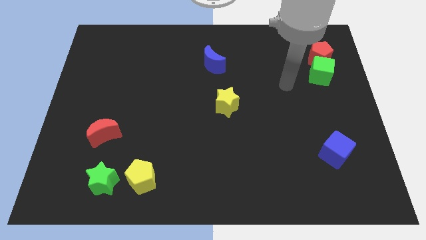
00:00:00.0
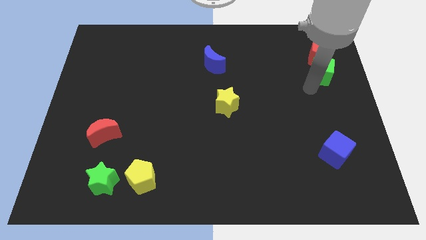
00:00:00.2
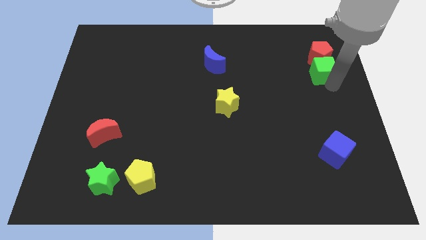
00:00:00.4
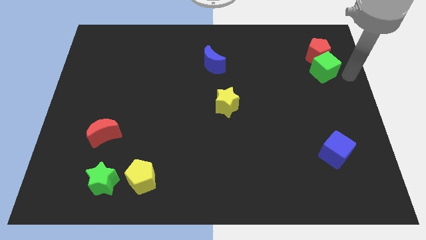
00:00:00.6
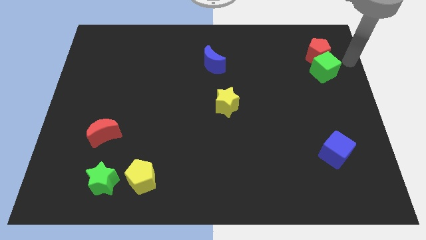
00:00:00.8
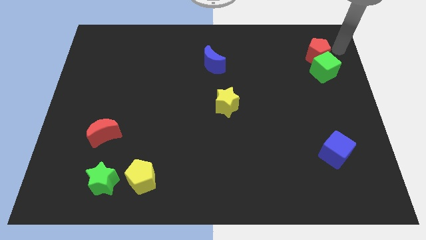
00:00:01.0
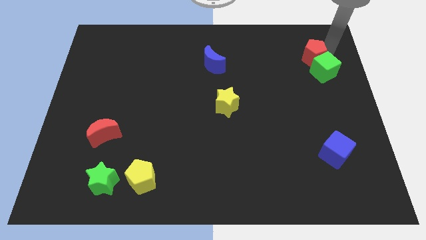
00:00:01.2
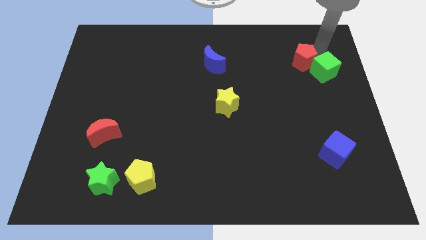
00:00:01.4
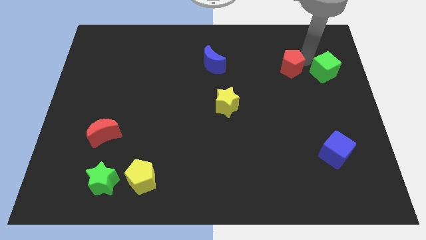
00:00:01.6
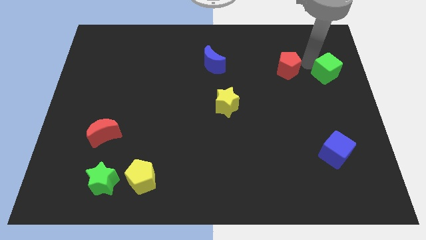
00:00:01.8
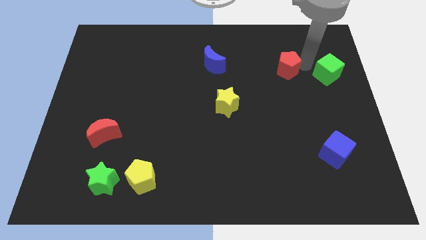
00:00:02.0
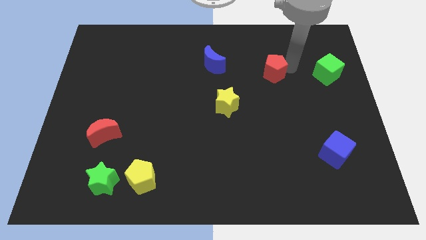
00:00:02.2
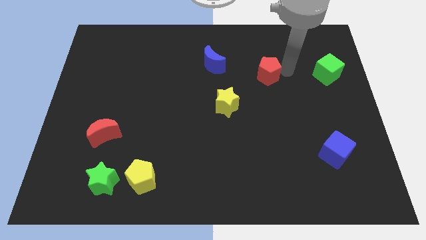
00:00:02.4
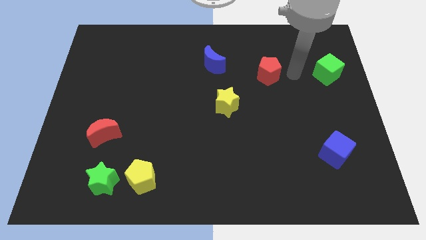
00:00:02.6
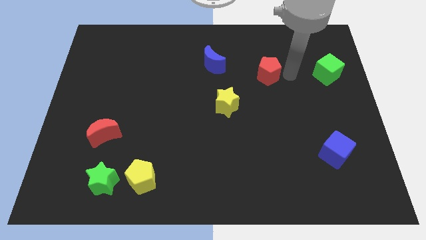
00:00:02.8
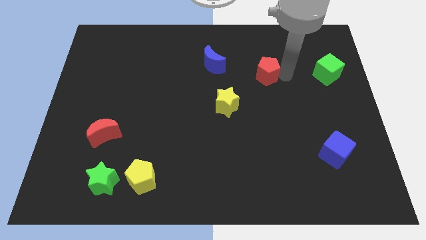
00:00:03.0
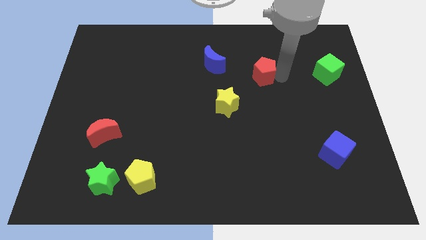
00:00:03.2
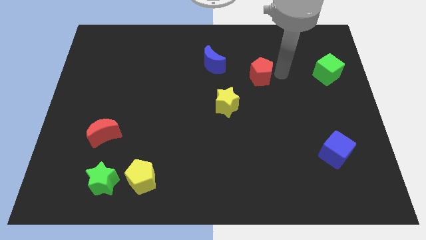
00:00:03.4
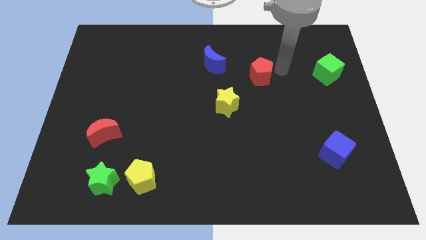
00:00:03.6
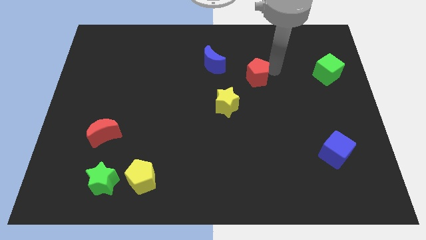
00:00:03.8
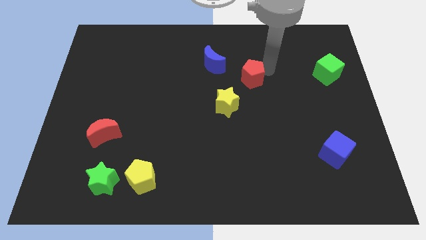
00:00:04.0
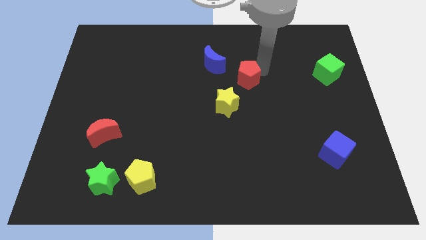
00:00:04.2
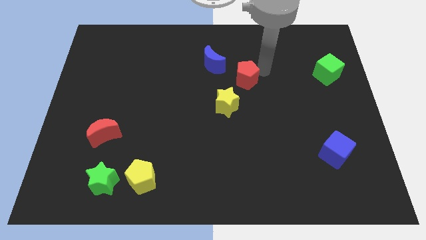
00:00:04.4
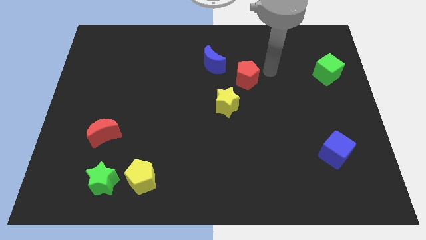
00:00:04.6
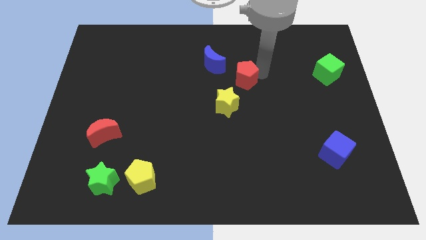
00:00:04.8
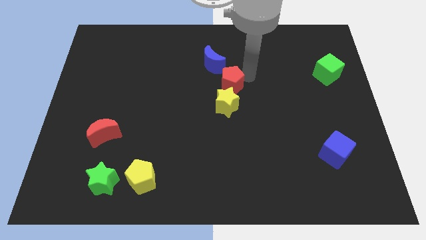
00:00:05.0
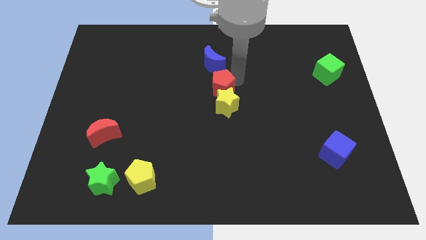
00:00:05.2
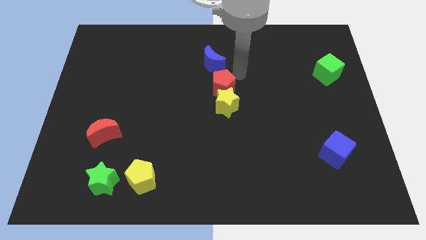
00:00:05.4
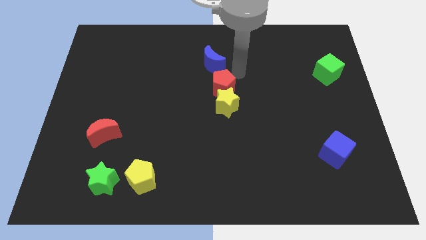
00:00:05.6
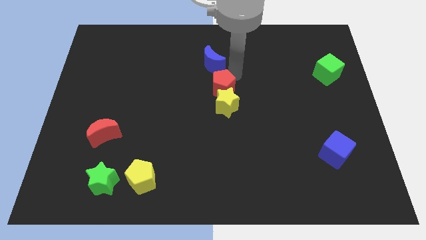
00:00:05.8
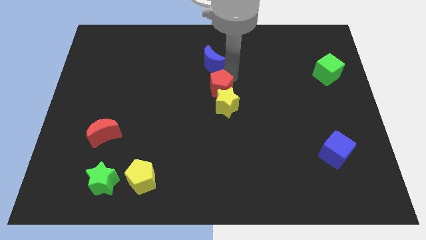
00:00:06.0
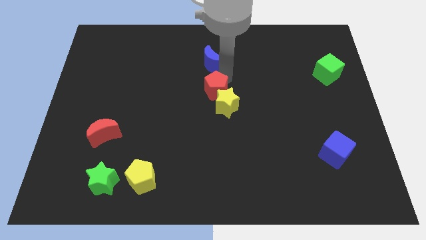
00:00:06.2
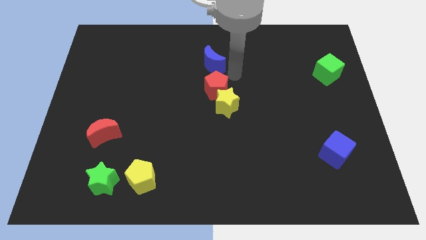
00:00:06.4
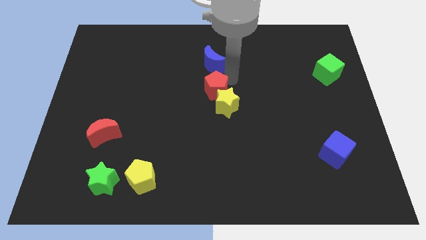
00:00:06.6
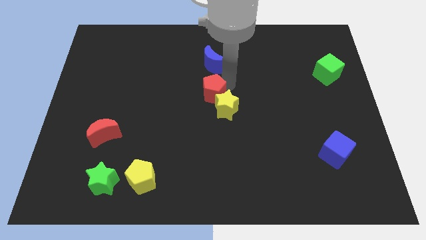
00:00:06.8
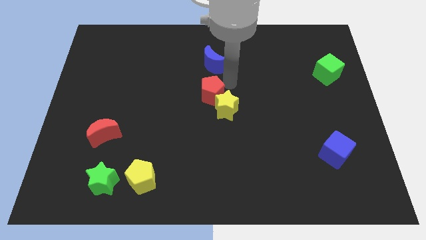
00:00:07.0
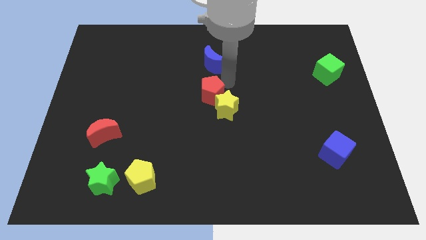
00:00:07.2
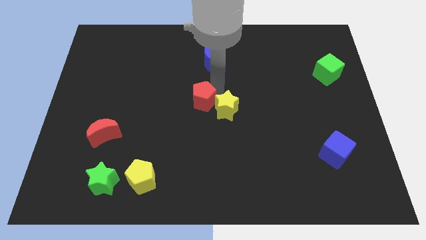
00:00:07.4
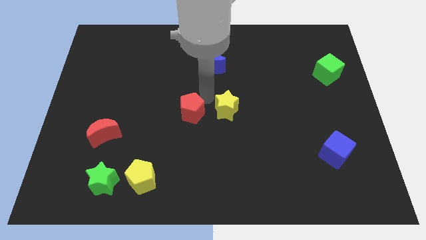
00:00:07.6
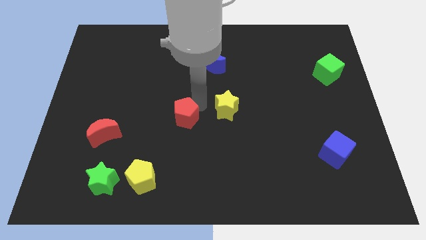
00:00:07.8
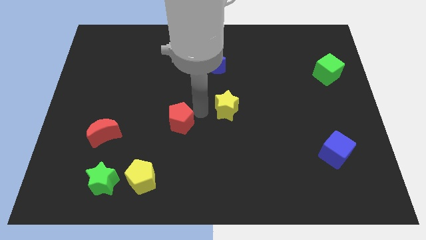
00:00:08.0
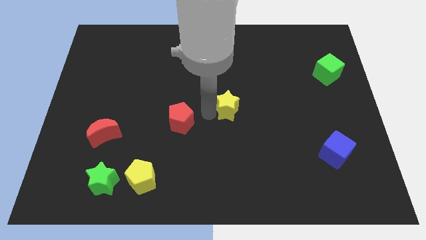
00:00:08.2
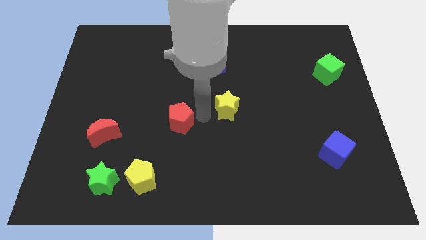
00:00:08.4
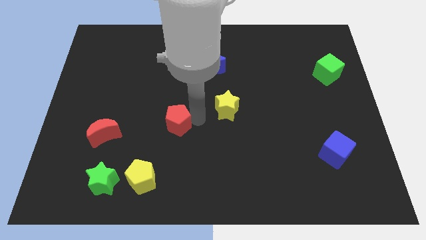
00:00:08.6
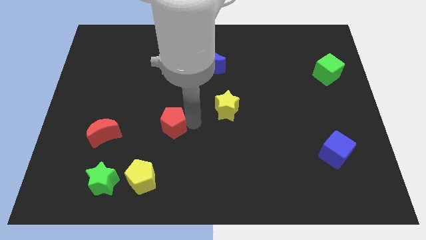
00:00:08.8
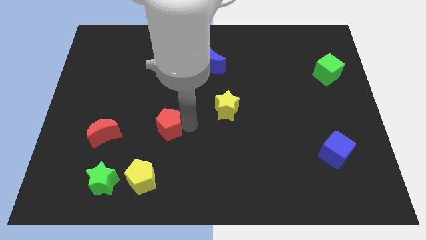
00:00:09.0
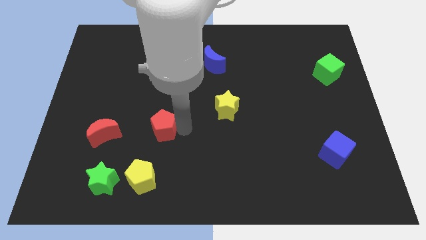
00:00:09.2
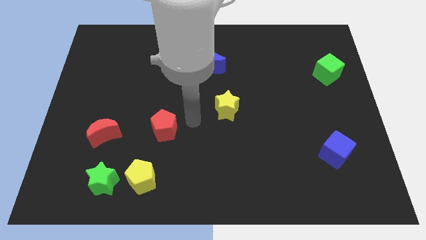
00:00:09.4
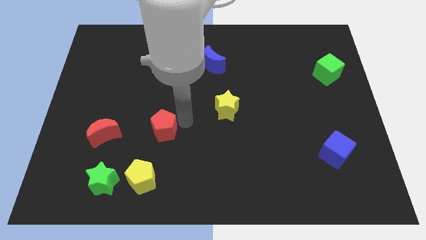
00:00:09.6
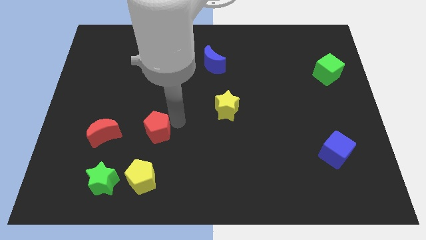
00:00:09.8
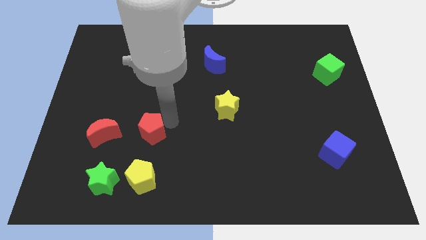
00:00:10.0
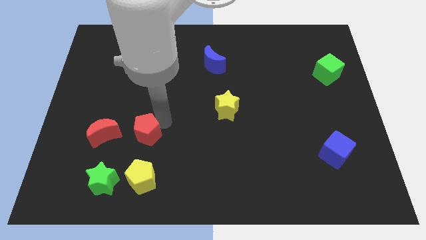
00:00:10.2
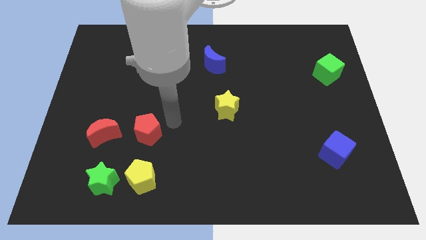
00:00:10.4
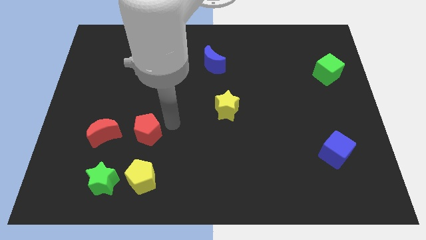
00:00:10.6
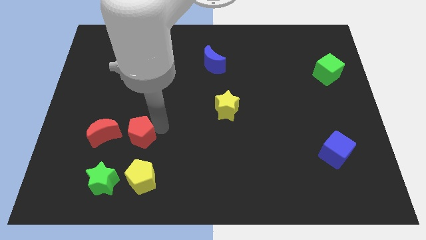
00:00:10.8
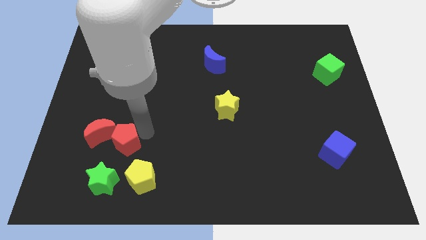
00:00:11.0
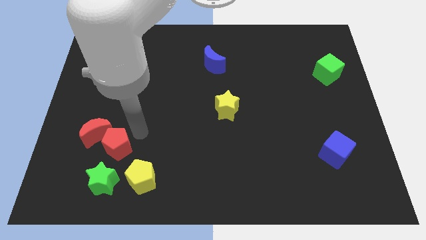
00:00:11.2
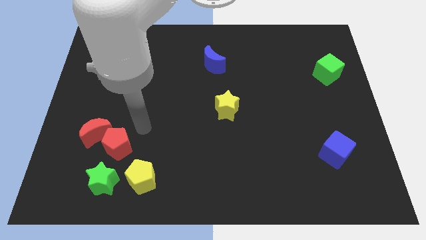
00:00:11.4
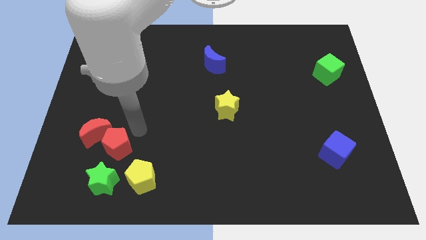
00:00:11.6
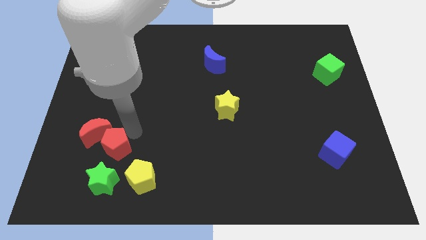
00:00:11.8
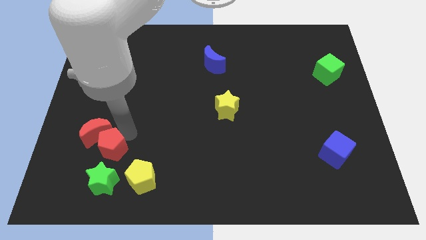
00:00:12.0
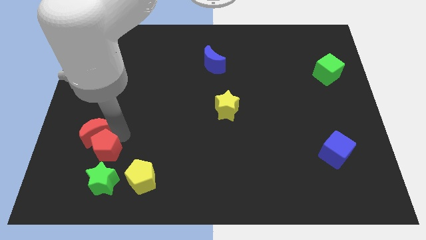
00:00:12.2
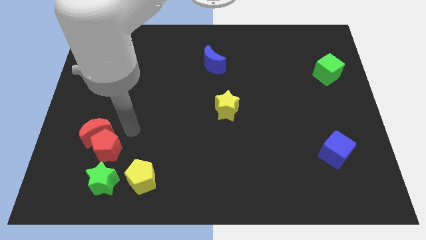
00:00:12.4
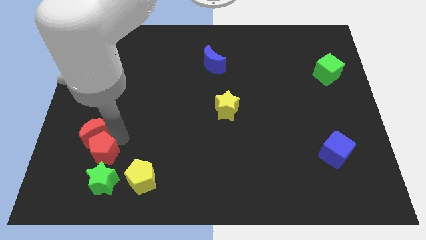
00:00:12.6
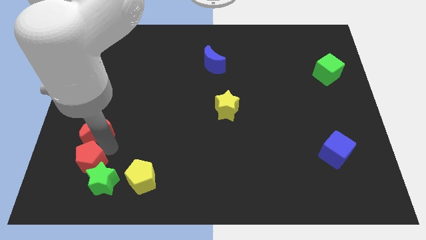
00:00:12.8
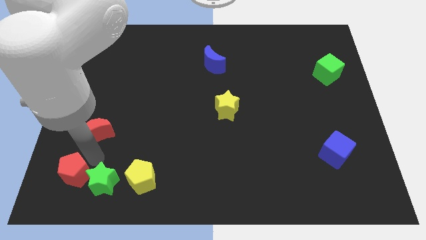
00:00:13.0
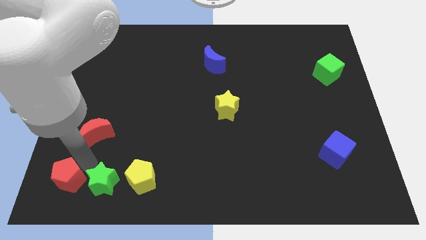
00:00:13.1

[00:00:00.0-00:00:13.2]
push the red pentagon to the bottom left

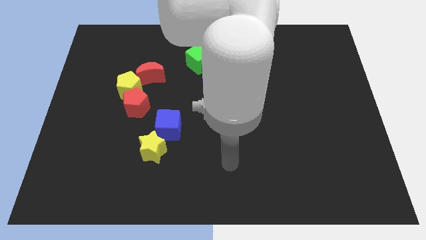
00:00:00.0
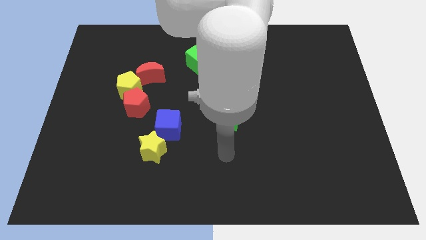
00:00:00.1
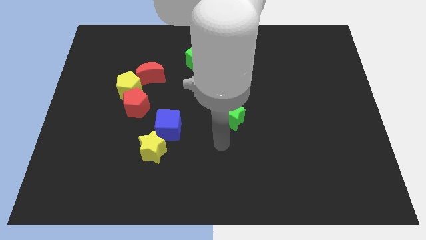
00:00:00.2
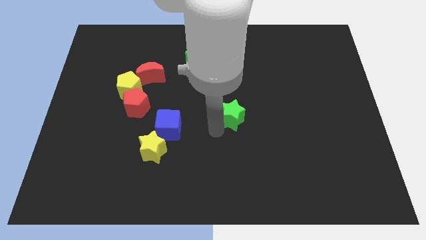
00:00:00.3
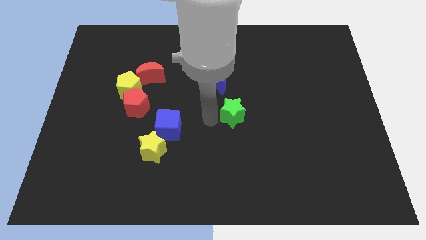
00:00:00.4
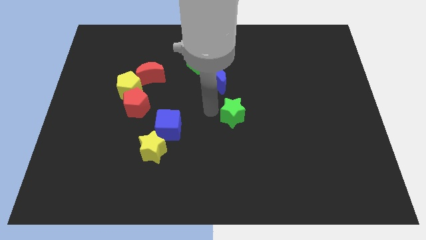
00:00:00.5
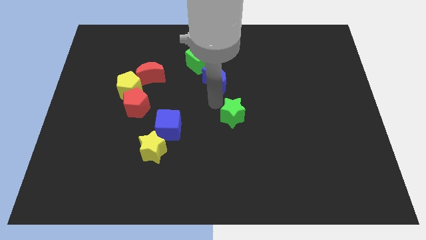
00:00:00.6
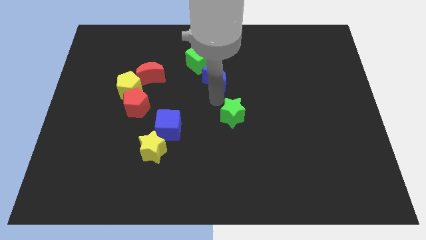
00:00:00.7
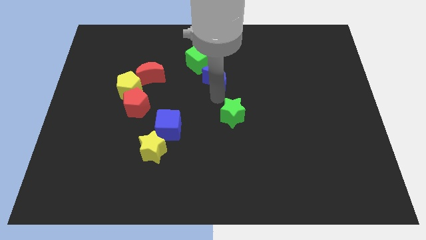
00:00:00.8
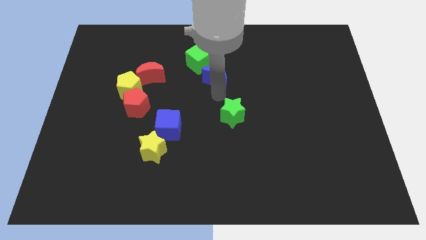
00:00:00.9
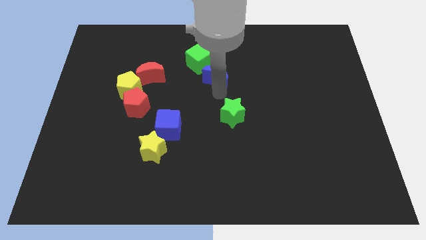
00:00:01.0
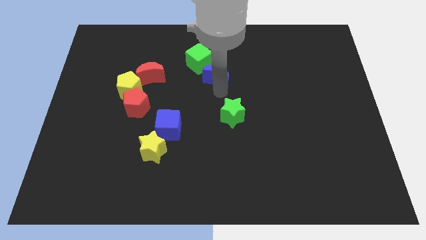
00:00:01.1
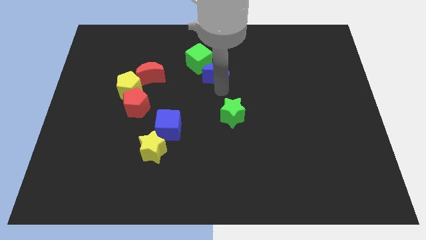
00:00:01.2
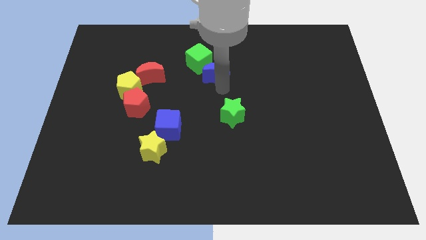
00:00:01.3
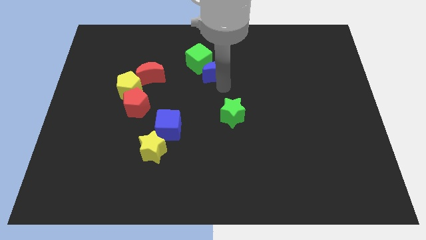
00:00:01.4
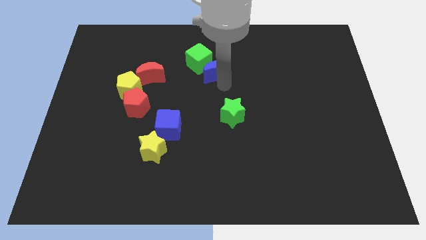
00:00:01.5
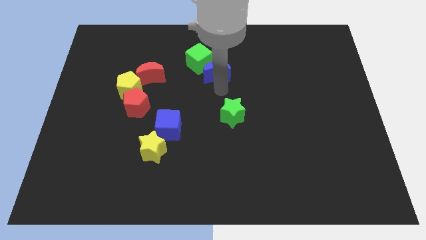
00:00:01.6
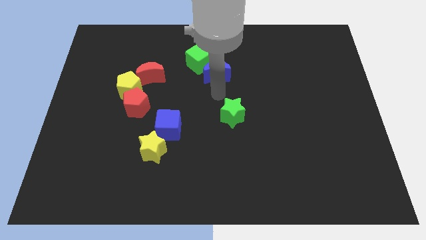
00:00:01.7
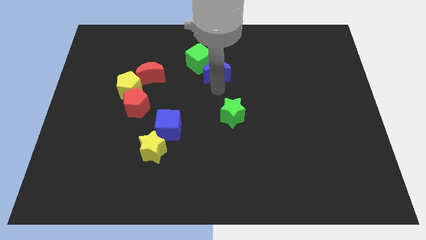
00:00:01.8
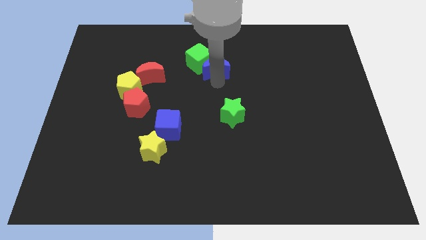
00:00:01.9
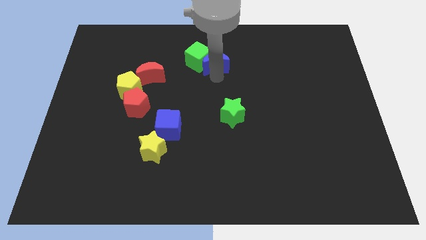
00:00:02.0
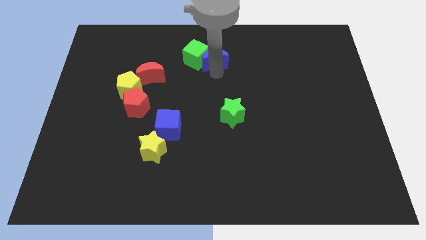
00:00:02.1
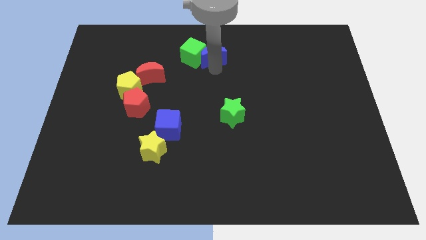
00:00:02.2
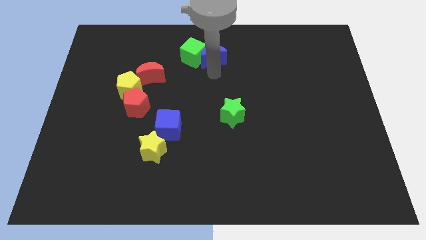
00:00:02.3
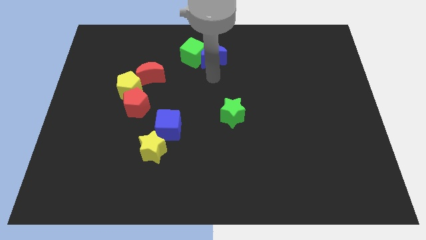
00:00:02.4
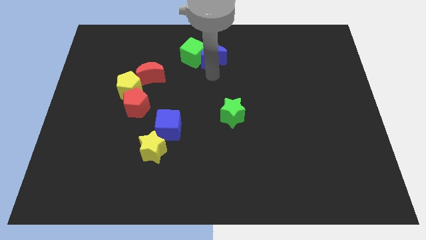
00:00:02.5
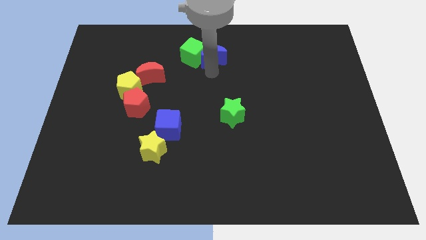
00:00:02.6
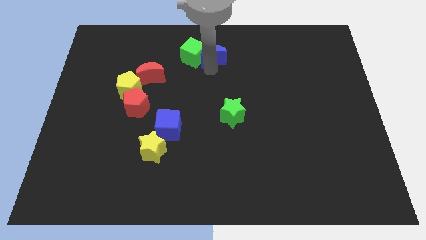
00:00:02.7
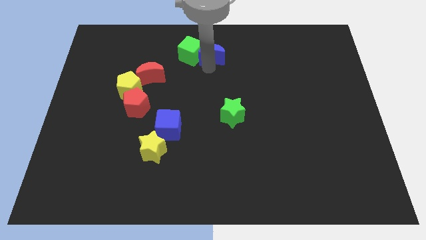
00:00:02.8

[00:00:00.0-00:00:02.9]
push the blue moon to the top
